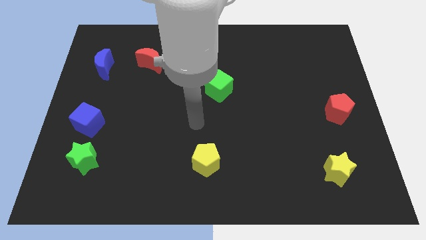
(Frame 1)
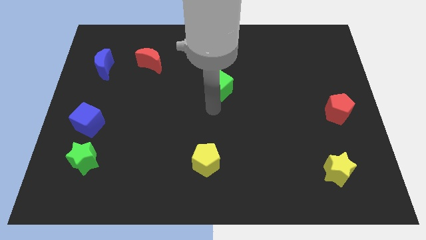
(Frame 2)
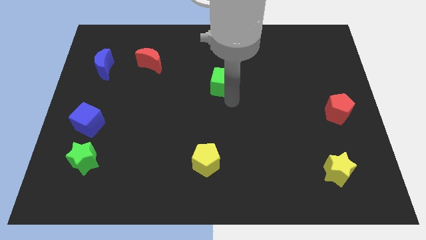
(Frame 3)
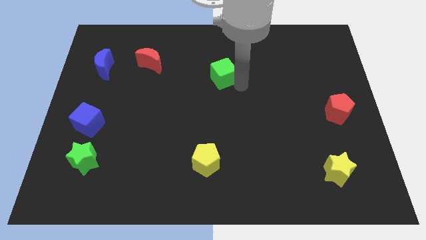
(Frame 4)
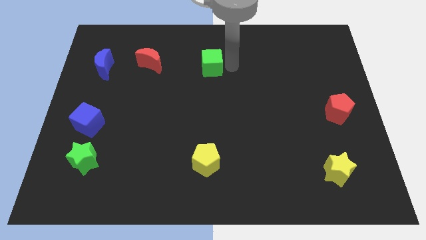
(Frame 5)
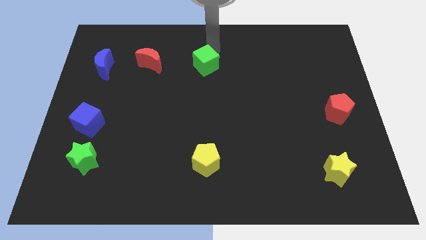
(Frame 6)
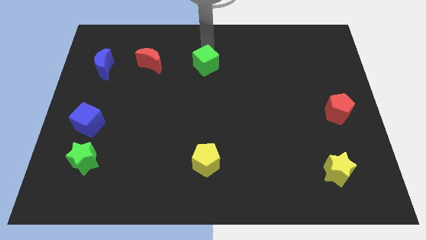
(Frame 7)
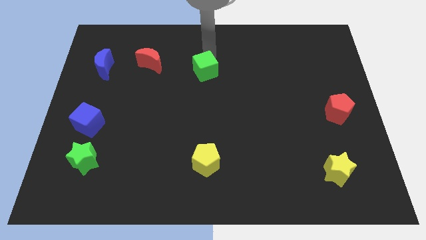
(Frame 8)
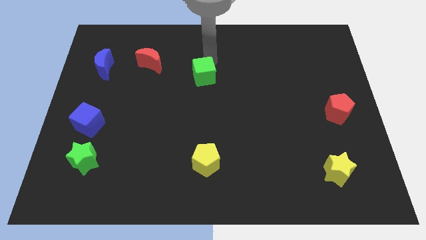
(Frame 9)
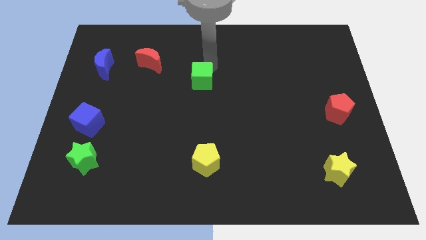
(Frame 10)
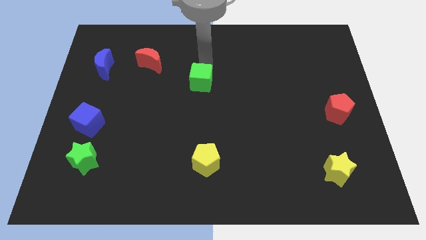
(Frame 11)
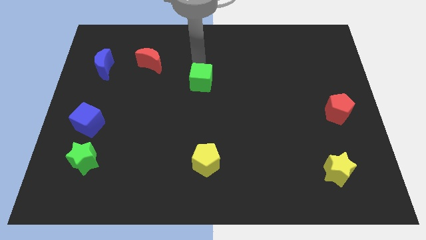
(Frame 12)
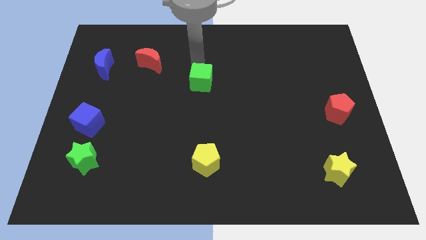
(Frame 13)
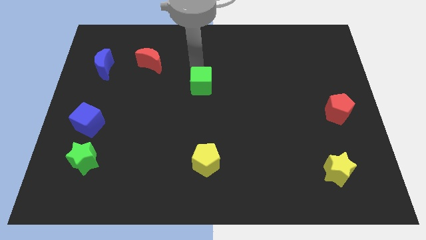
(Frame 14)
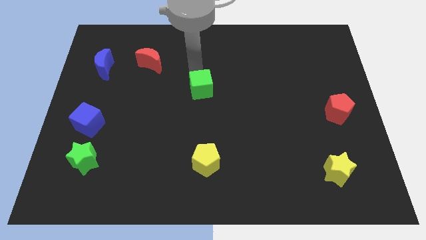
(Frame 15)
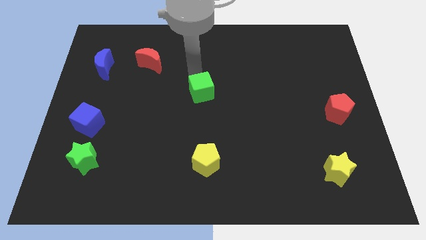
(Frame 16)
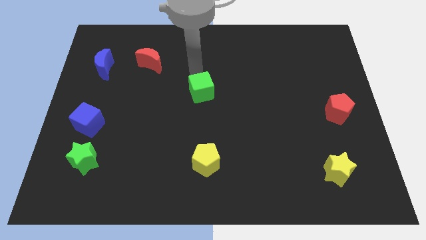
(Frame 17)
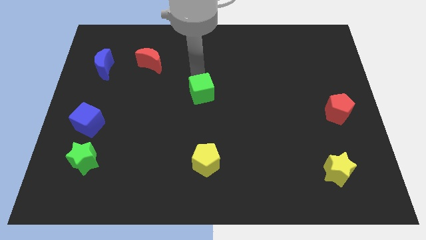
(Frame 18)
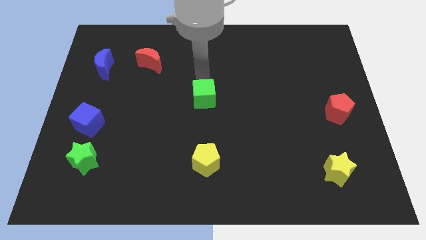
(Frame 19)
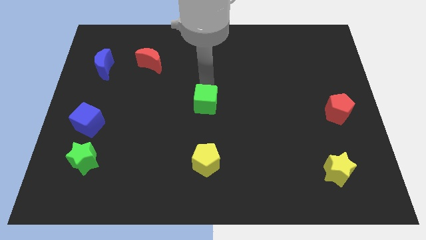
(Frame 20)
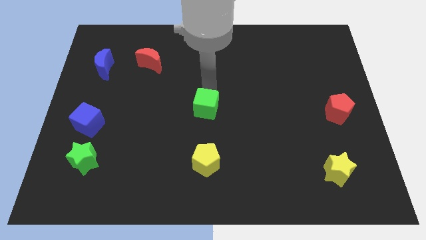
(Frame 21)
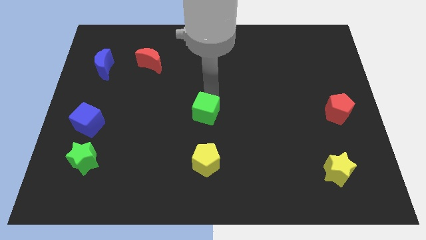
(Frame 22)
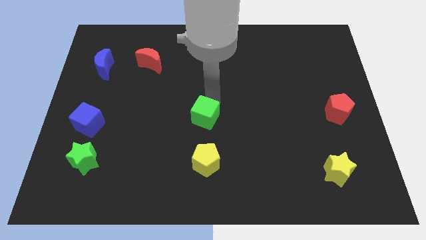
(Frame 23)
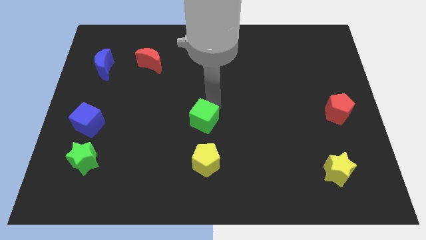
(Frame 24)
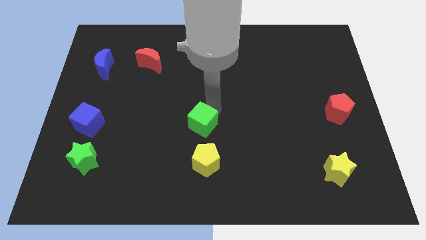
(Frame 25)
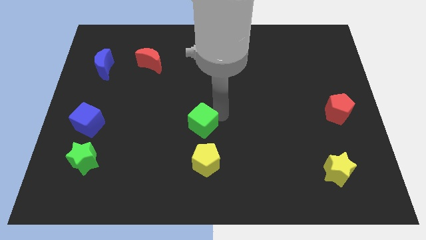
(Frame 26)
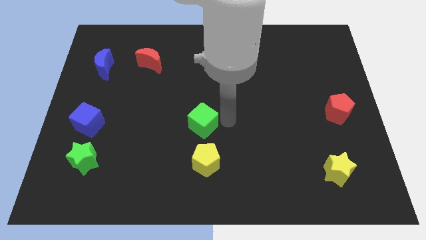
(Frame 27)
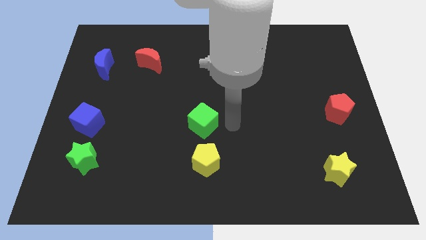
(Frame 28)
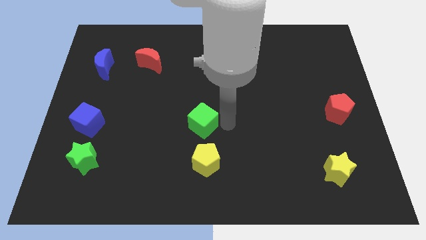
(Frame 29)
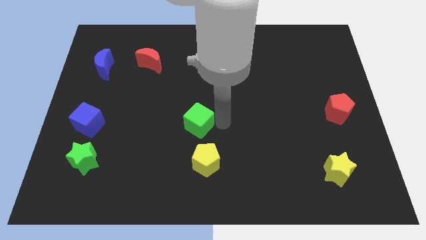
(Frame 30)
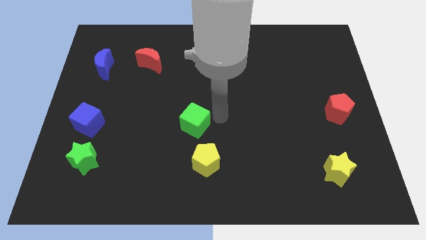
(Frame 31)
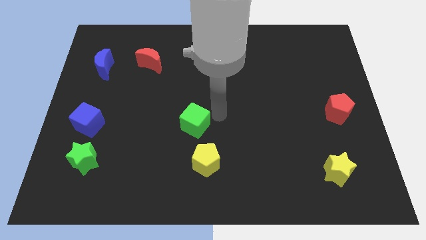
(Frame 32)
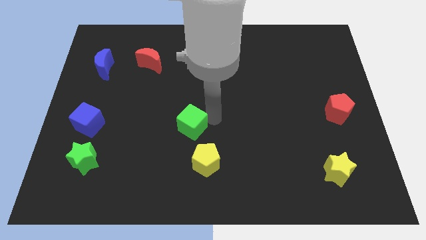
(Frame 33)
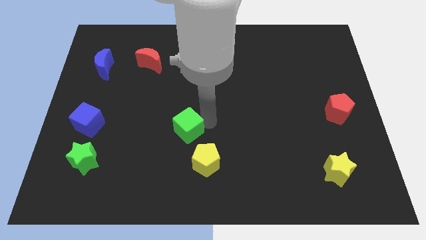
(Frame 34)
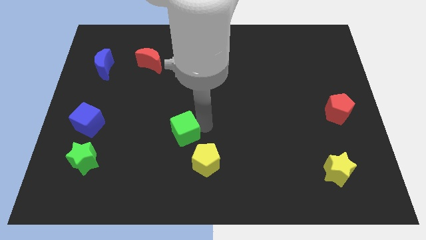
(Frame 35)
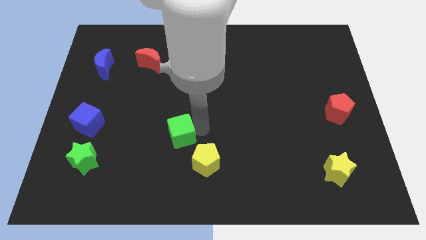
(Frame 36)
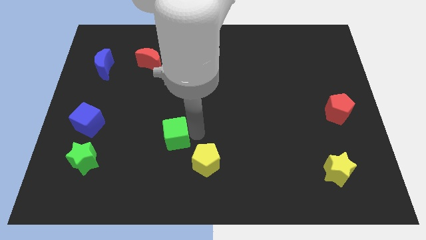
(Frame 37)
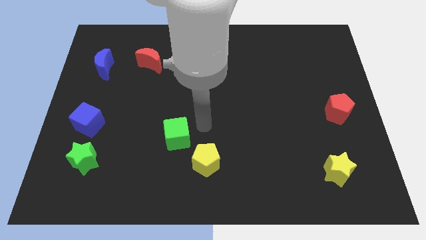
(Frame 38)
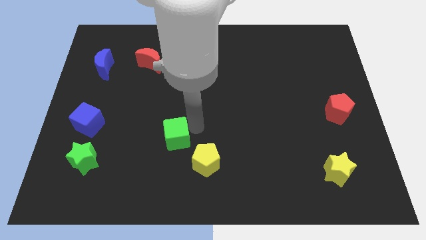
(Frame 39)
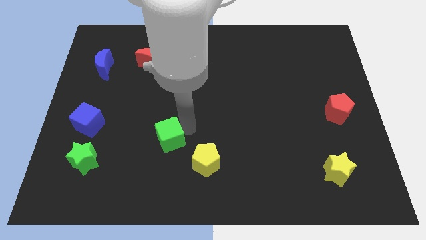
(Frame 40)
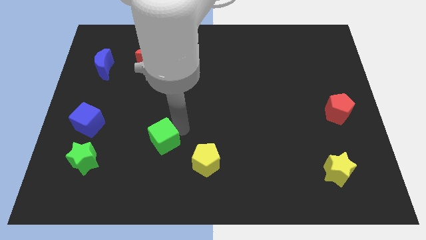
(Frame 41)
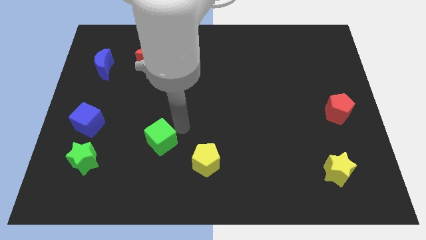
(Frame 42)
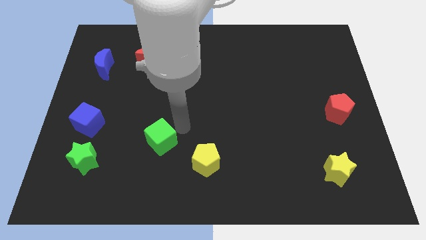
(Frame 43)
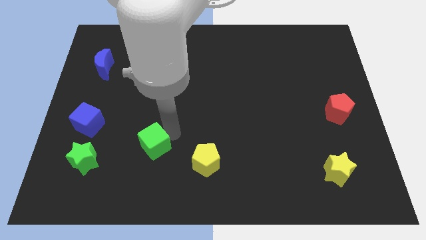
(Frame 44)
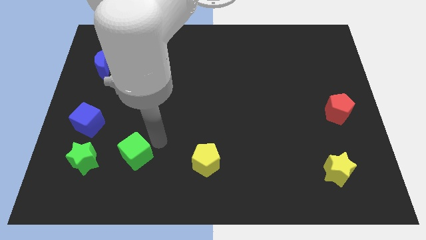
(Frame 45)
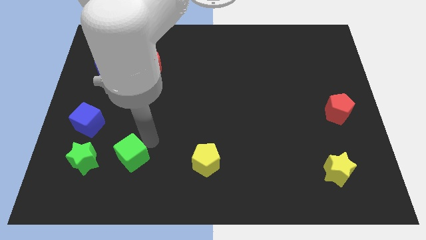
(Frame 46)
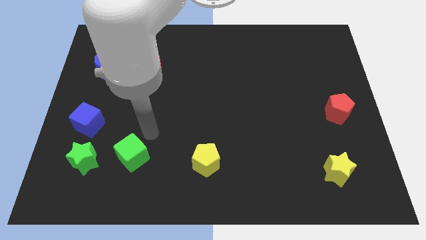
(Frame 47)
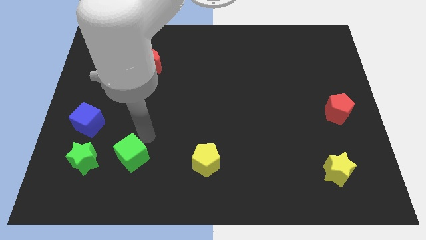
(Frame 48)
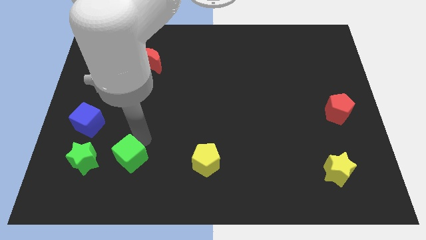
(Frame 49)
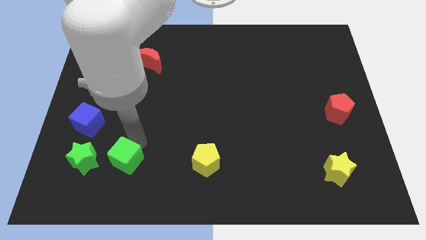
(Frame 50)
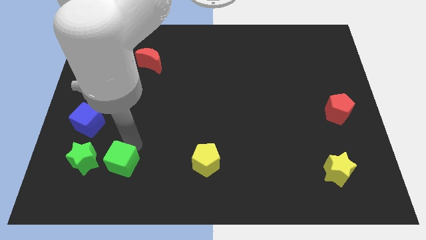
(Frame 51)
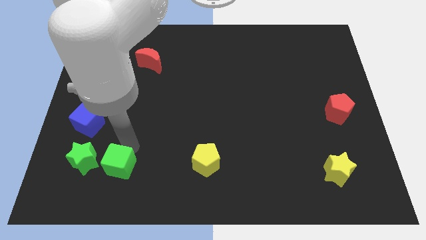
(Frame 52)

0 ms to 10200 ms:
push the green cube to the bottom right of the green star

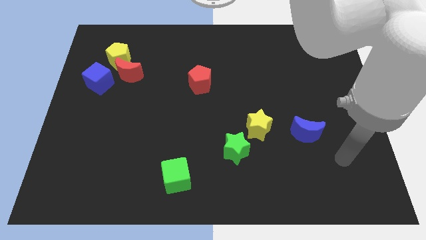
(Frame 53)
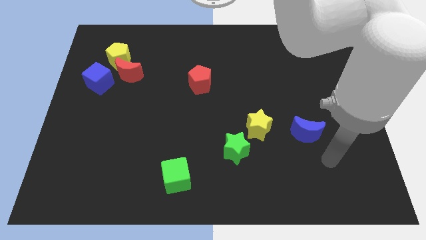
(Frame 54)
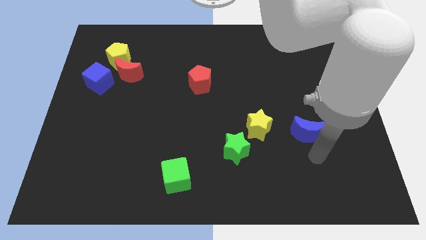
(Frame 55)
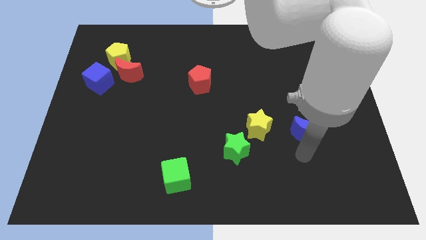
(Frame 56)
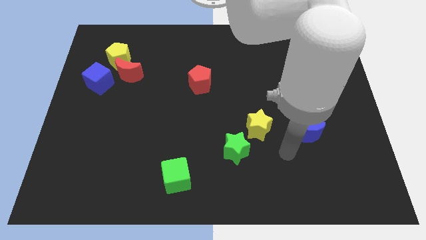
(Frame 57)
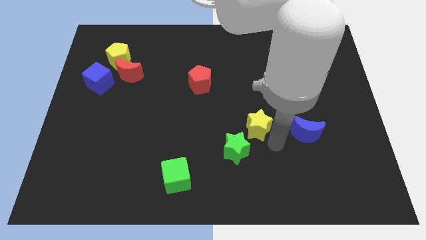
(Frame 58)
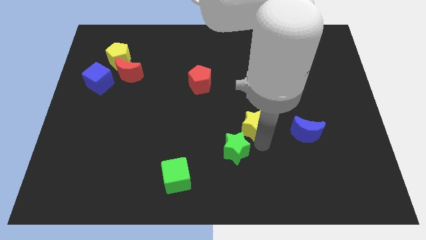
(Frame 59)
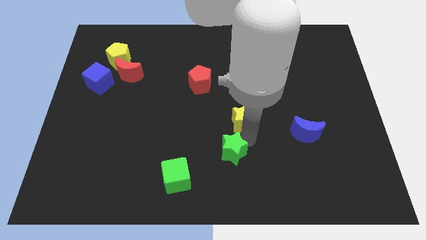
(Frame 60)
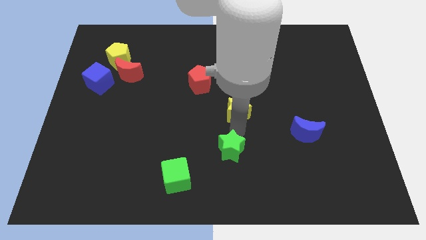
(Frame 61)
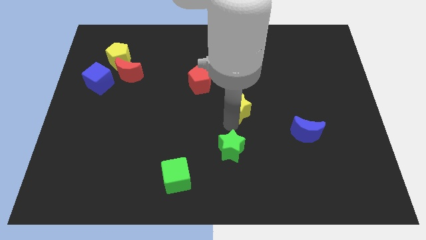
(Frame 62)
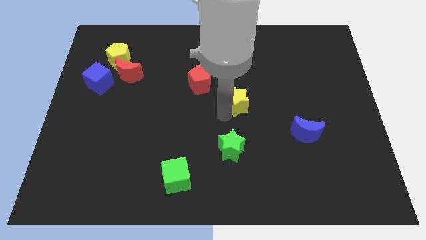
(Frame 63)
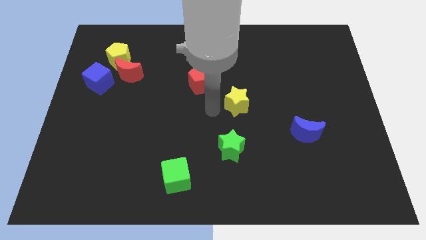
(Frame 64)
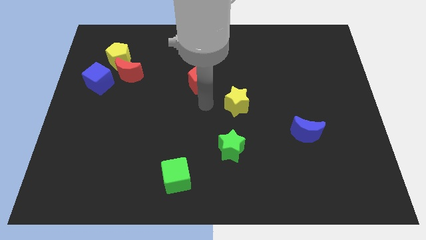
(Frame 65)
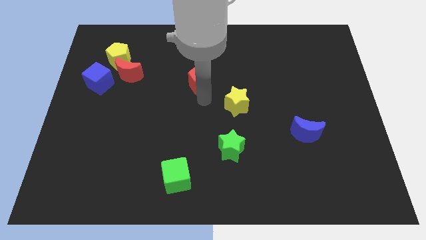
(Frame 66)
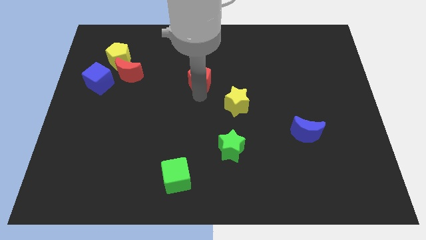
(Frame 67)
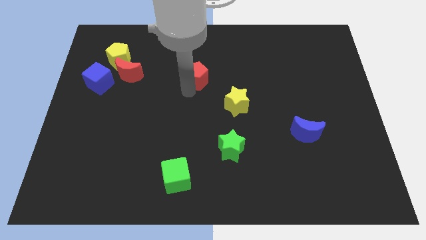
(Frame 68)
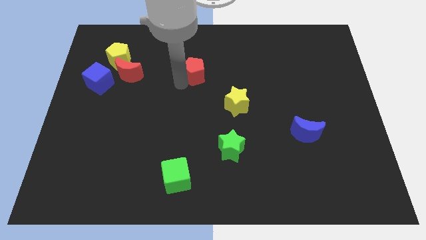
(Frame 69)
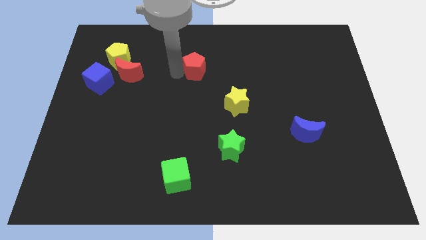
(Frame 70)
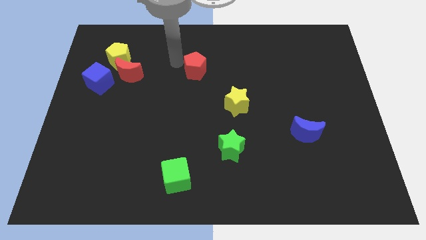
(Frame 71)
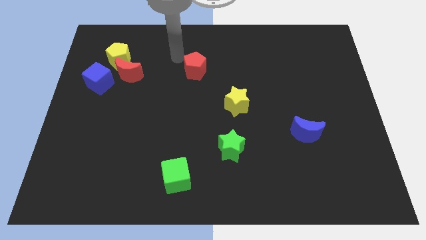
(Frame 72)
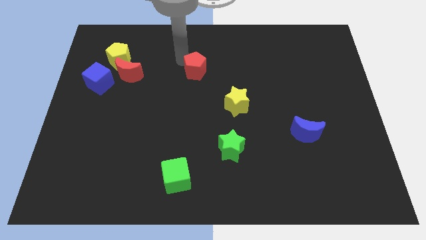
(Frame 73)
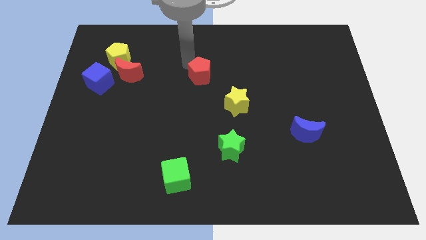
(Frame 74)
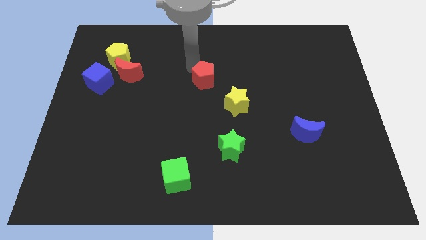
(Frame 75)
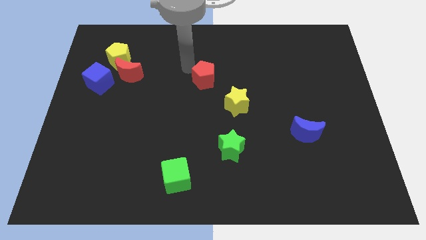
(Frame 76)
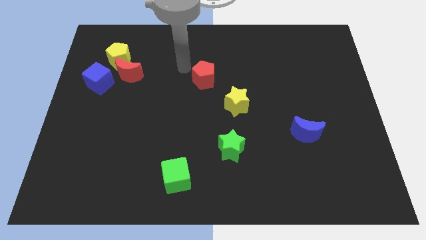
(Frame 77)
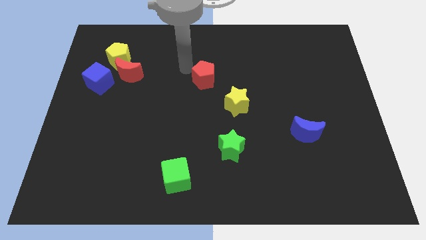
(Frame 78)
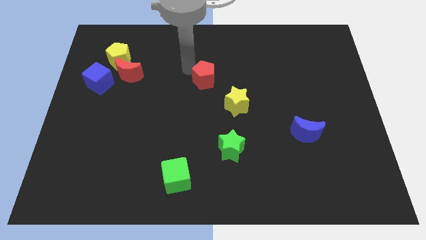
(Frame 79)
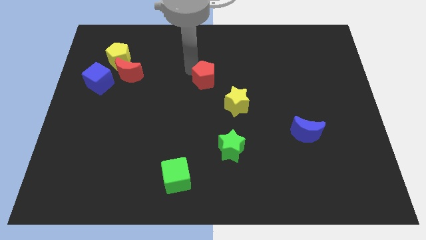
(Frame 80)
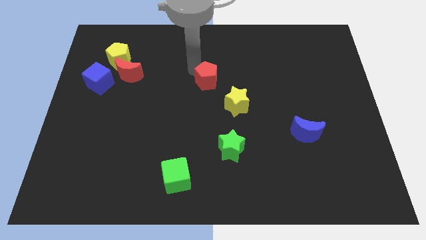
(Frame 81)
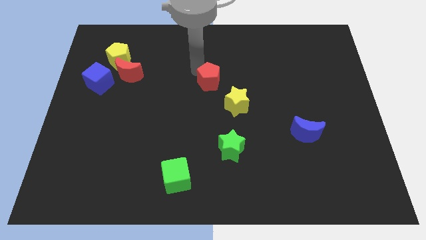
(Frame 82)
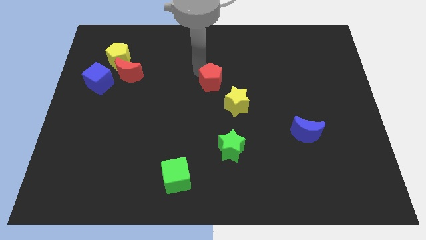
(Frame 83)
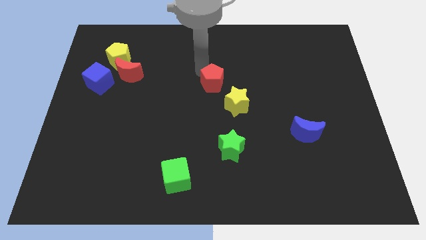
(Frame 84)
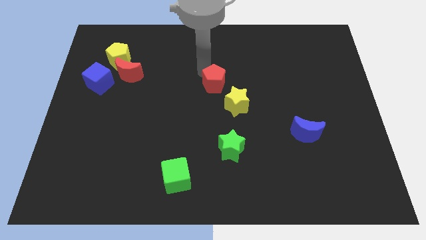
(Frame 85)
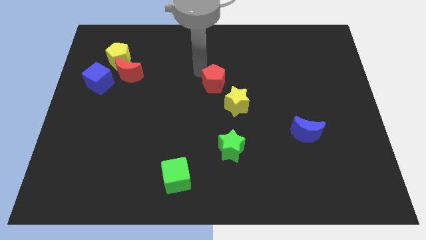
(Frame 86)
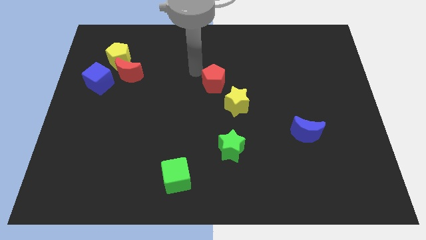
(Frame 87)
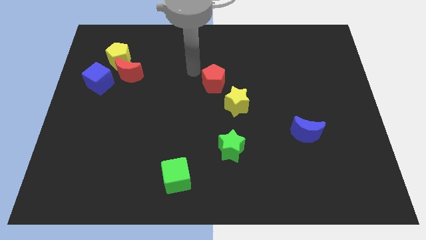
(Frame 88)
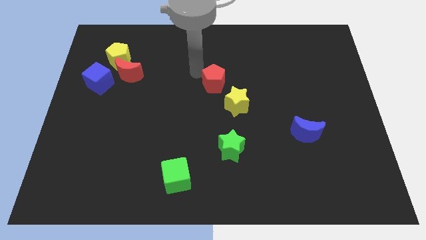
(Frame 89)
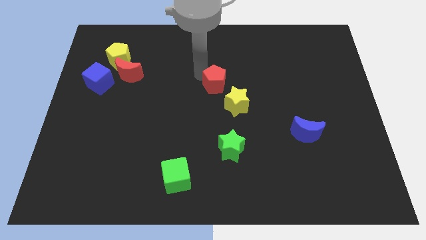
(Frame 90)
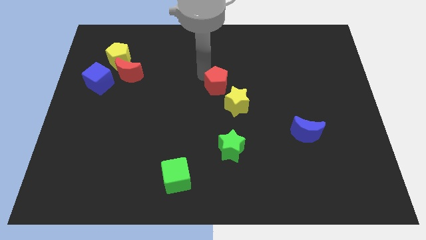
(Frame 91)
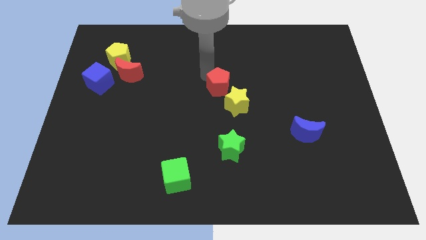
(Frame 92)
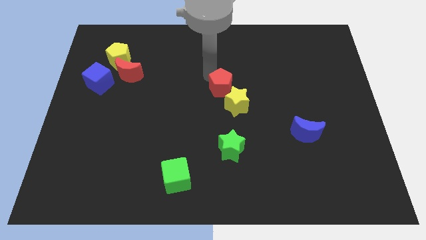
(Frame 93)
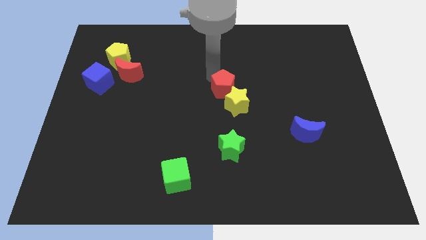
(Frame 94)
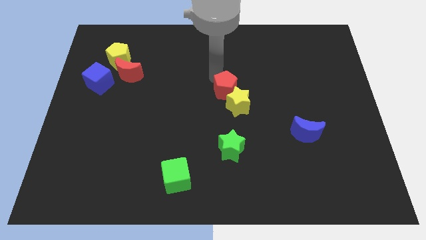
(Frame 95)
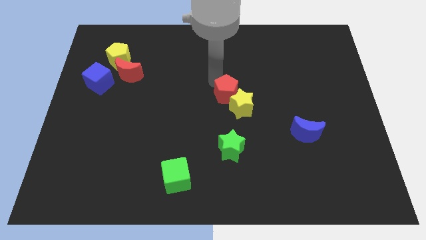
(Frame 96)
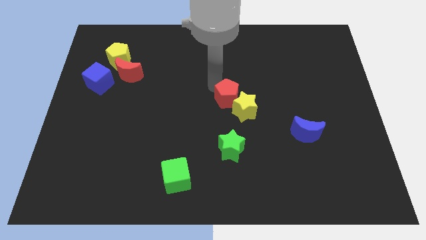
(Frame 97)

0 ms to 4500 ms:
push the red pentagon to the top of the yellow star
